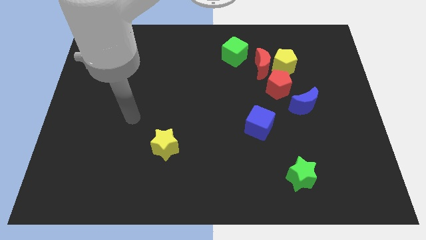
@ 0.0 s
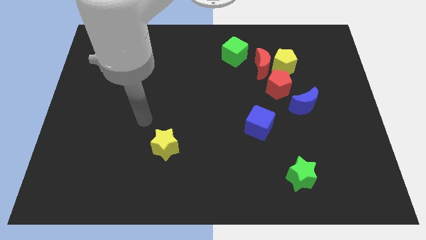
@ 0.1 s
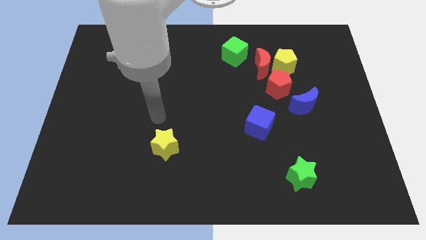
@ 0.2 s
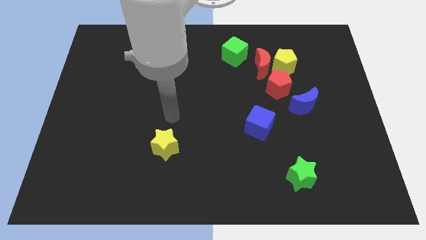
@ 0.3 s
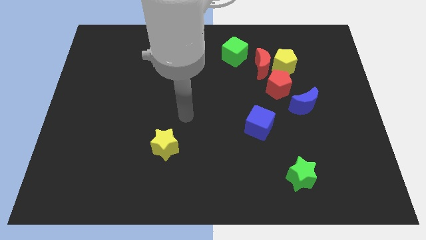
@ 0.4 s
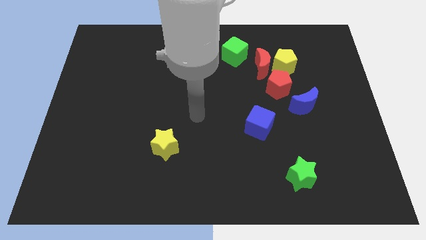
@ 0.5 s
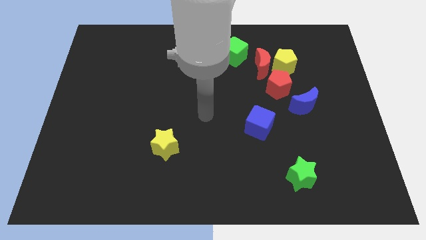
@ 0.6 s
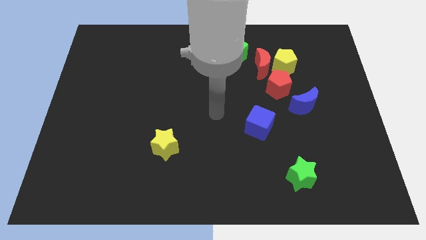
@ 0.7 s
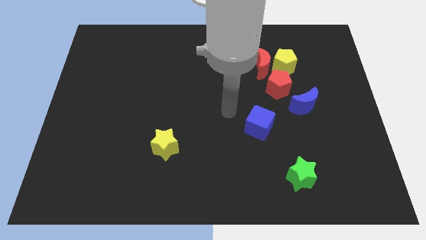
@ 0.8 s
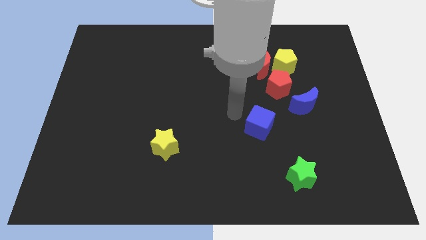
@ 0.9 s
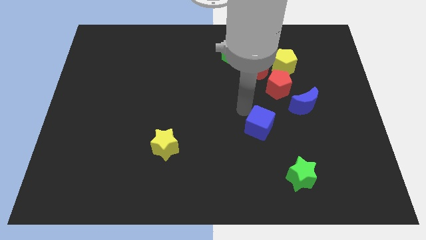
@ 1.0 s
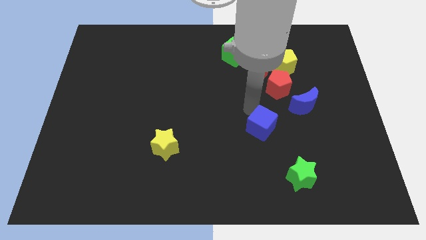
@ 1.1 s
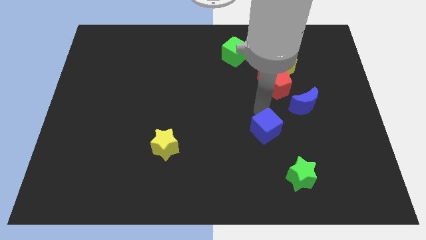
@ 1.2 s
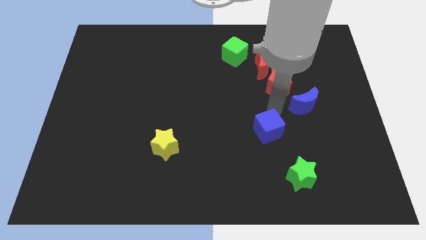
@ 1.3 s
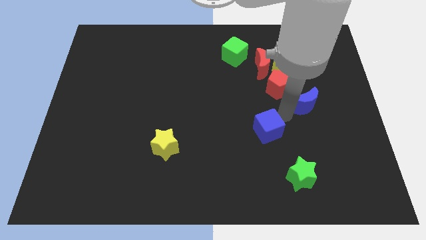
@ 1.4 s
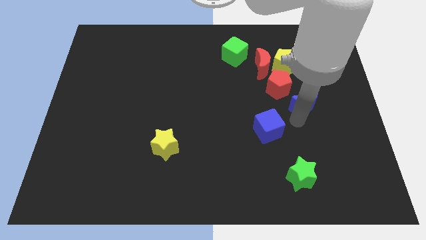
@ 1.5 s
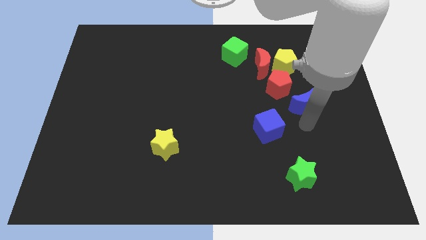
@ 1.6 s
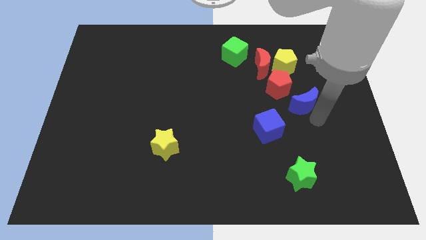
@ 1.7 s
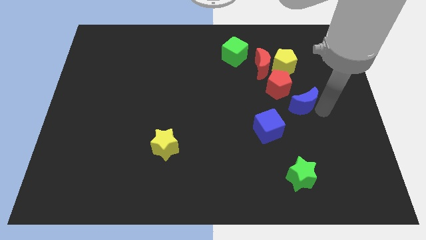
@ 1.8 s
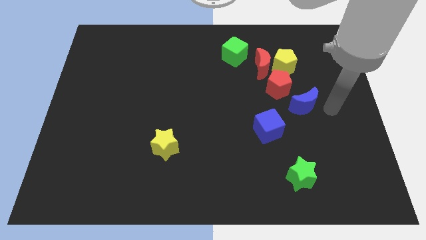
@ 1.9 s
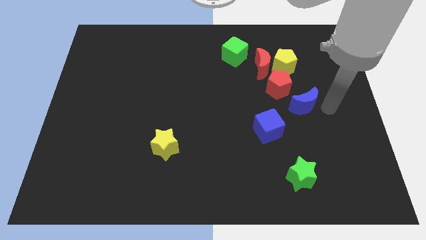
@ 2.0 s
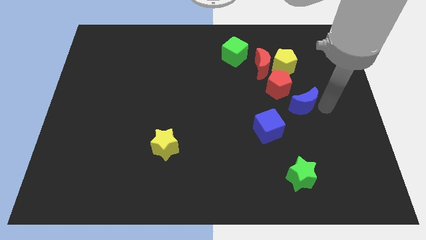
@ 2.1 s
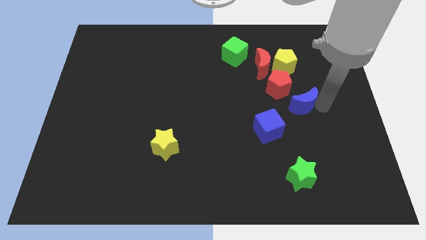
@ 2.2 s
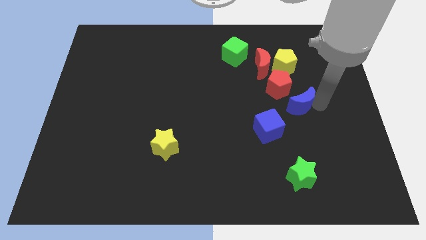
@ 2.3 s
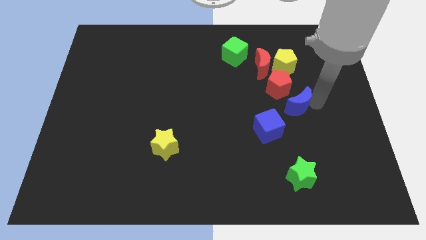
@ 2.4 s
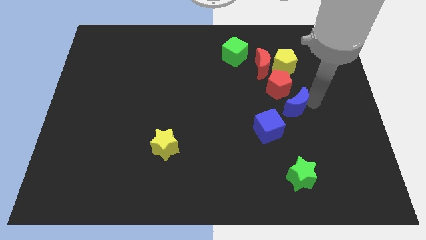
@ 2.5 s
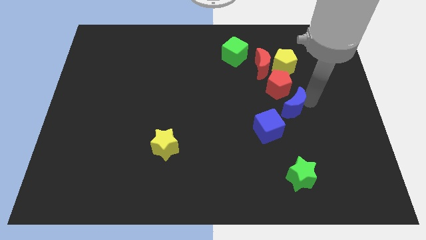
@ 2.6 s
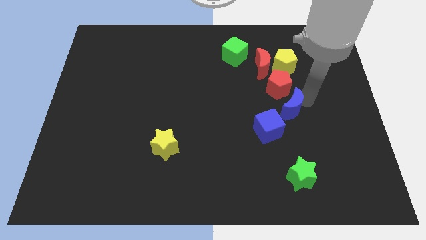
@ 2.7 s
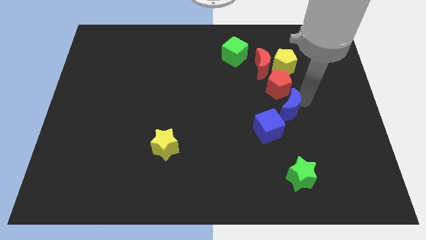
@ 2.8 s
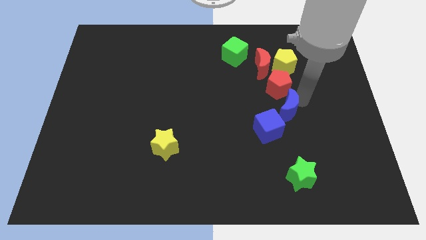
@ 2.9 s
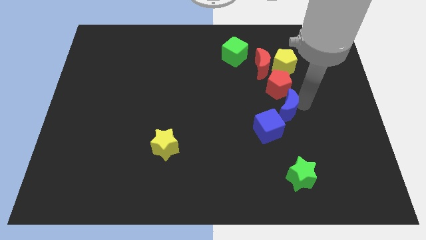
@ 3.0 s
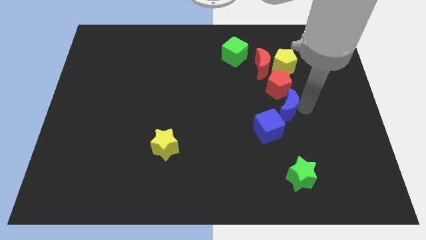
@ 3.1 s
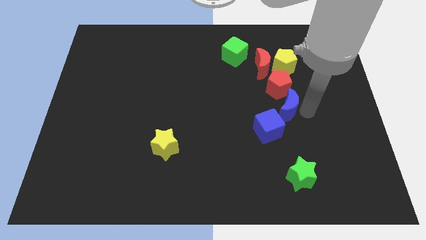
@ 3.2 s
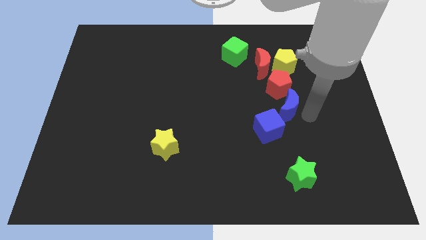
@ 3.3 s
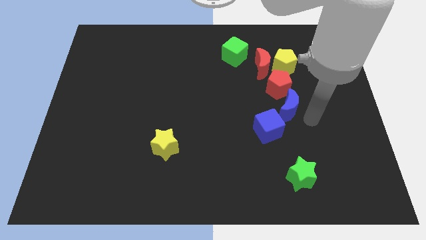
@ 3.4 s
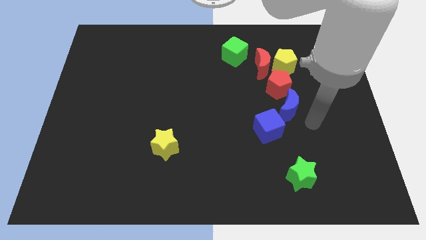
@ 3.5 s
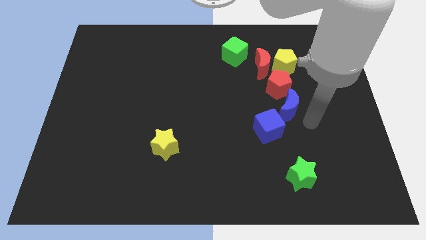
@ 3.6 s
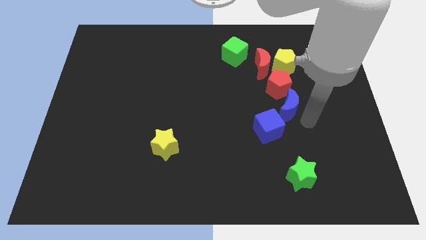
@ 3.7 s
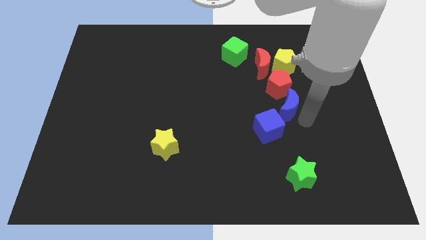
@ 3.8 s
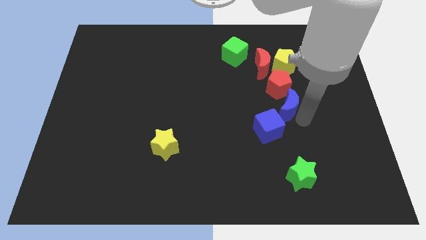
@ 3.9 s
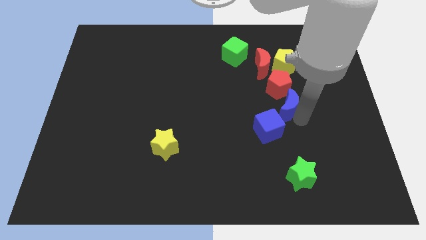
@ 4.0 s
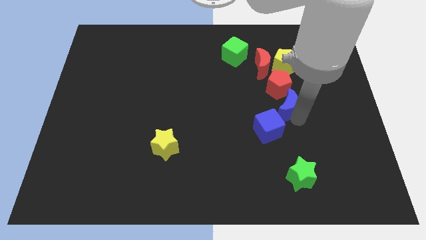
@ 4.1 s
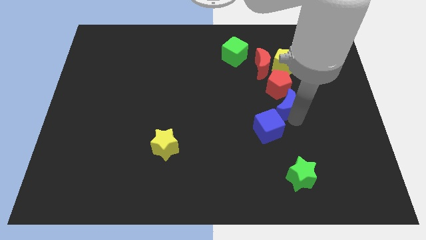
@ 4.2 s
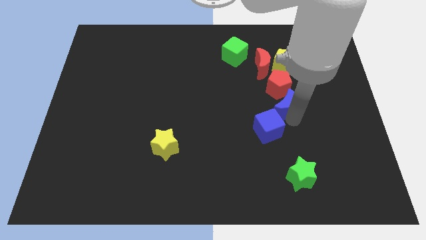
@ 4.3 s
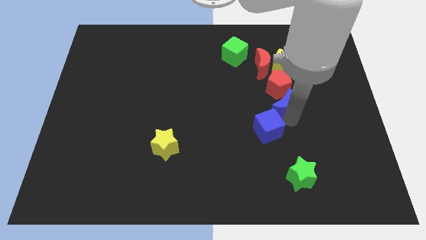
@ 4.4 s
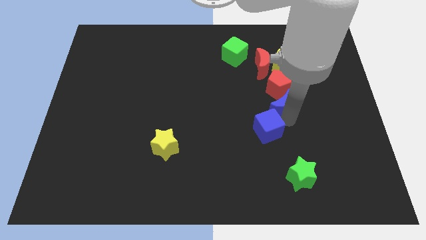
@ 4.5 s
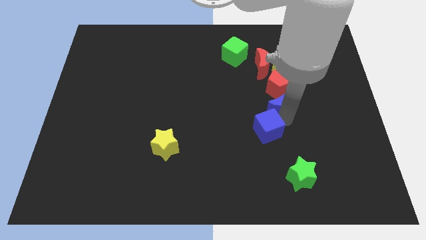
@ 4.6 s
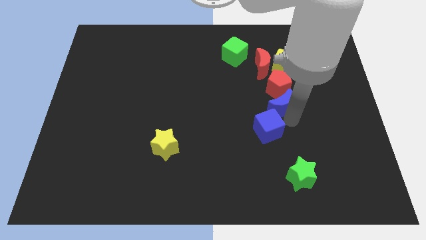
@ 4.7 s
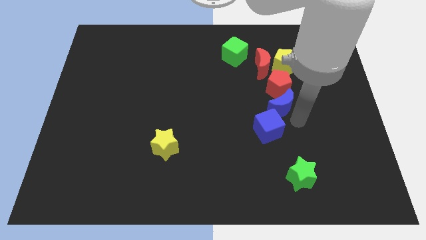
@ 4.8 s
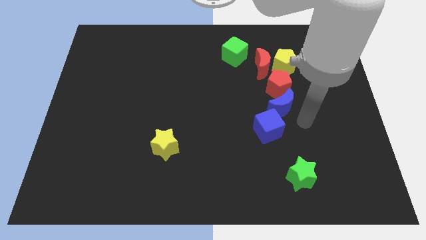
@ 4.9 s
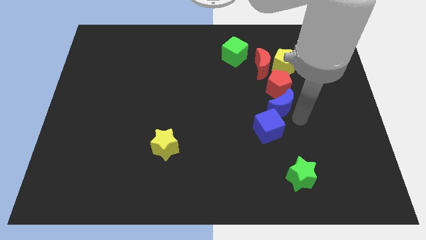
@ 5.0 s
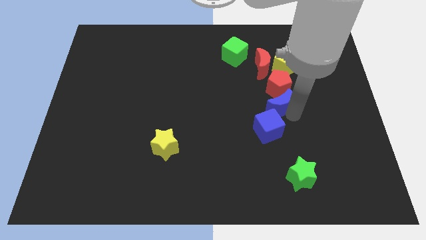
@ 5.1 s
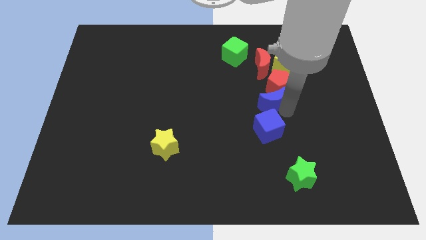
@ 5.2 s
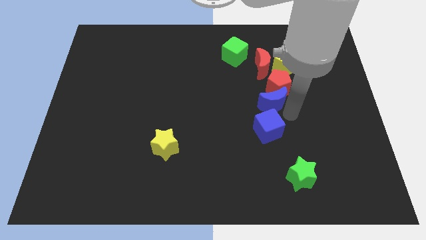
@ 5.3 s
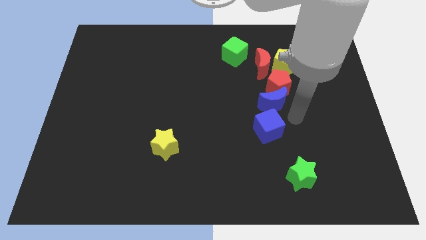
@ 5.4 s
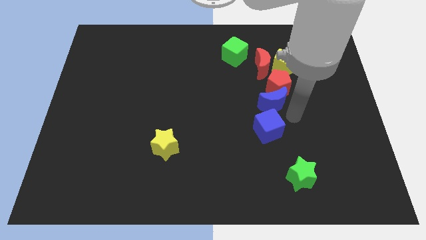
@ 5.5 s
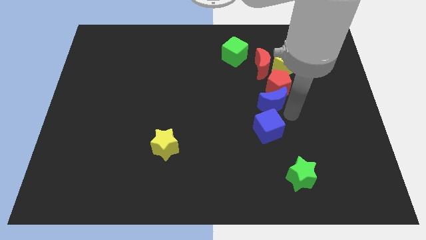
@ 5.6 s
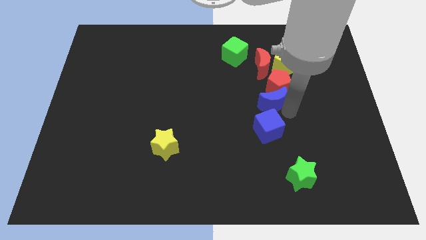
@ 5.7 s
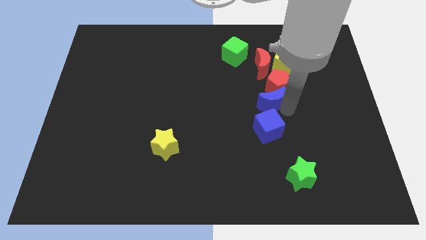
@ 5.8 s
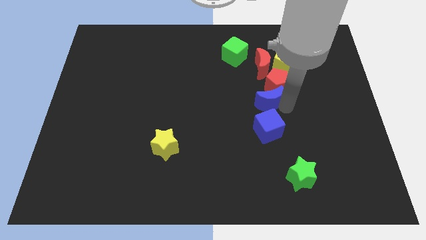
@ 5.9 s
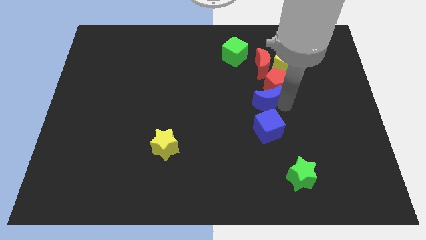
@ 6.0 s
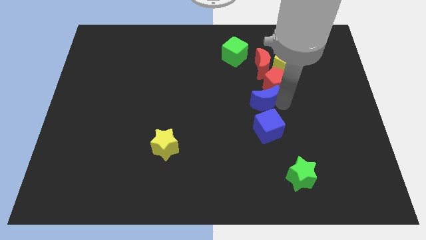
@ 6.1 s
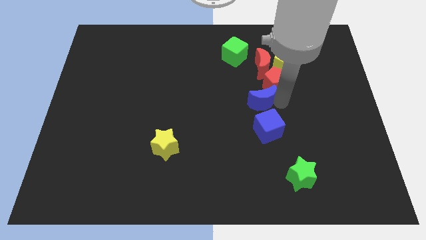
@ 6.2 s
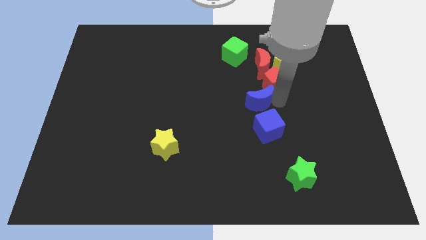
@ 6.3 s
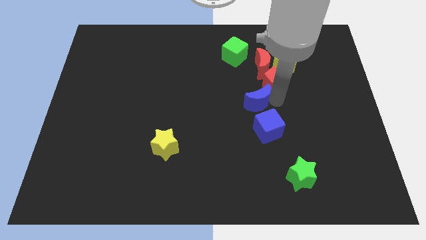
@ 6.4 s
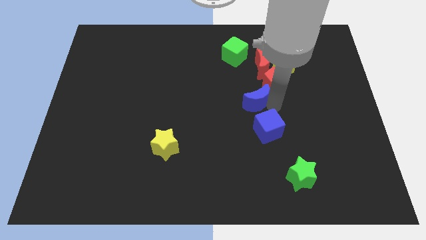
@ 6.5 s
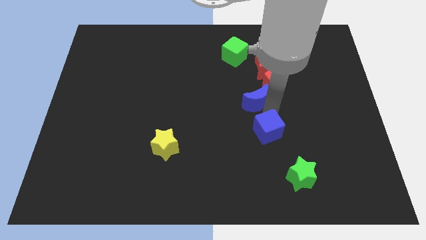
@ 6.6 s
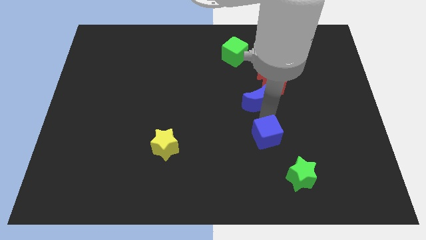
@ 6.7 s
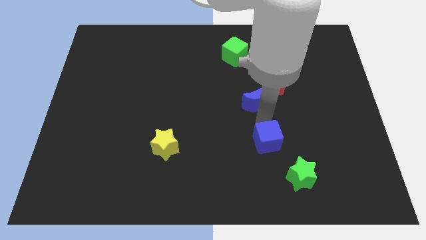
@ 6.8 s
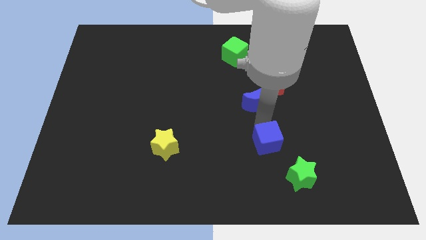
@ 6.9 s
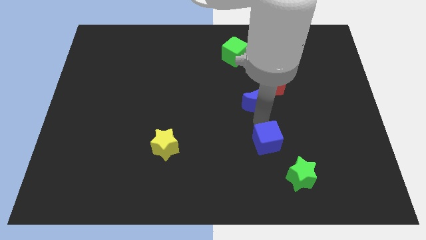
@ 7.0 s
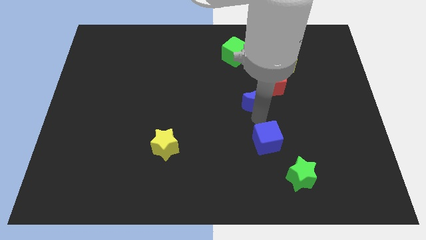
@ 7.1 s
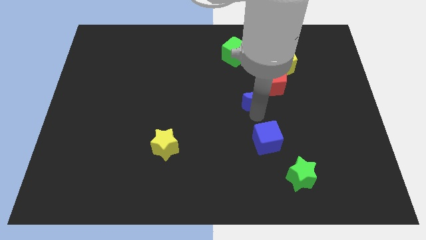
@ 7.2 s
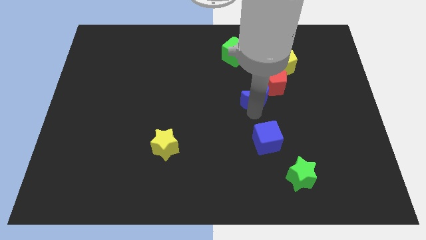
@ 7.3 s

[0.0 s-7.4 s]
push the blue moon upwards and left somewhat

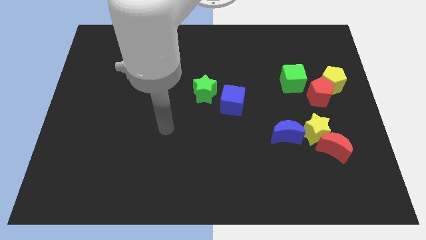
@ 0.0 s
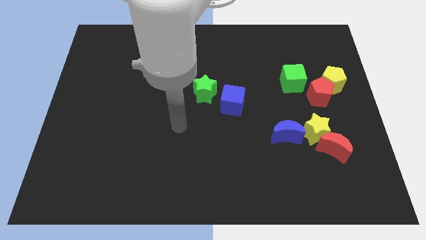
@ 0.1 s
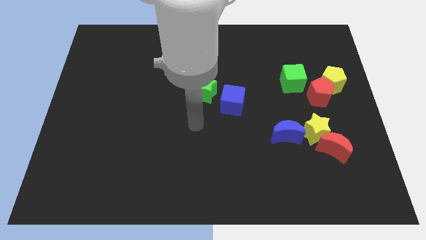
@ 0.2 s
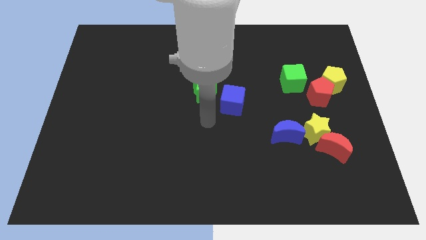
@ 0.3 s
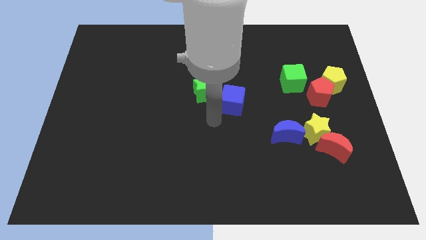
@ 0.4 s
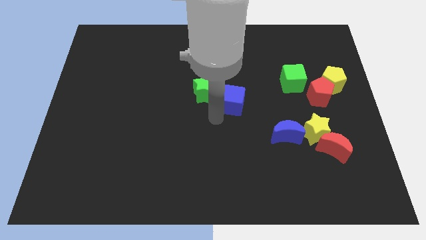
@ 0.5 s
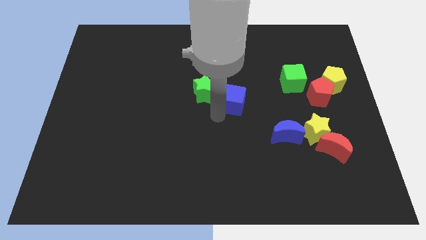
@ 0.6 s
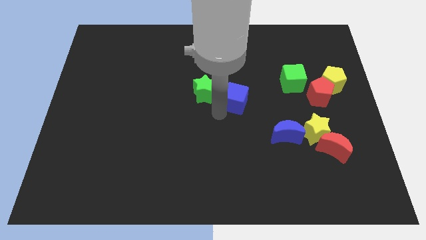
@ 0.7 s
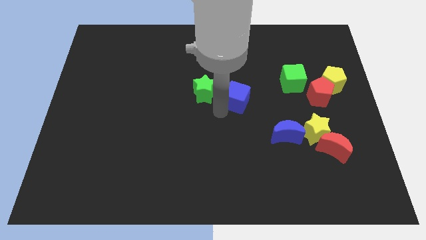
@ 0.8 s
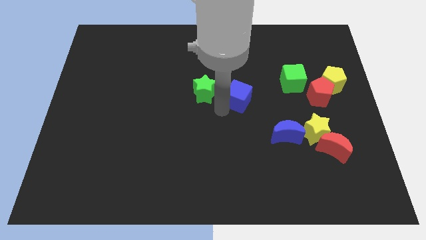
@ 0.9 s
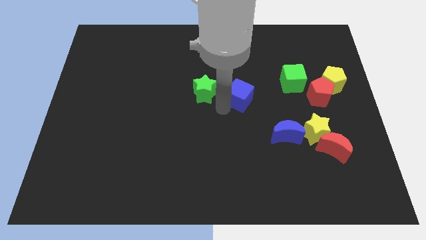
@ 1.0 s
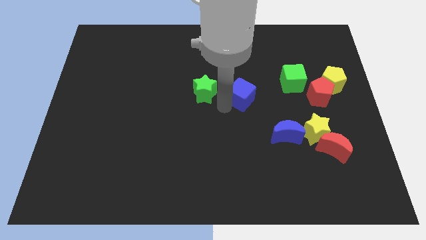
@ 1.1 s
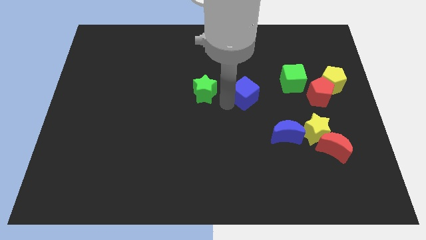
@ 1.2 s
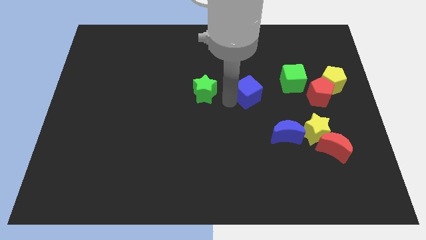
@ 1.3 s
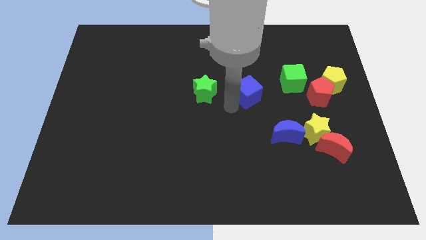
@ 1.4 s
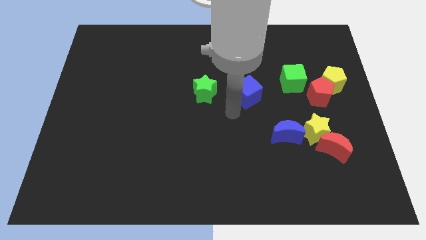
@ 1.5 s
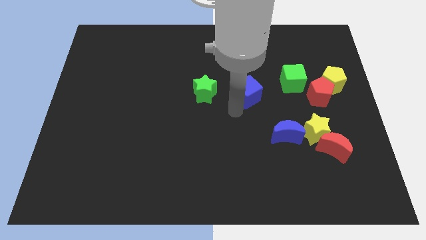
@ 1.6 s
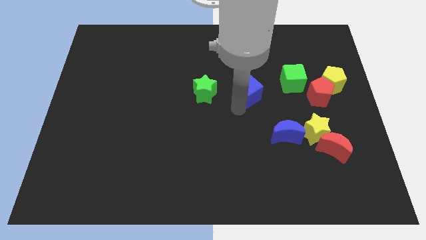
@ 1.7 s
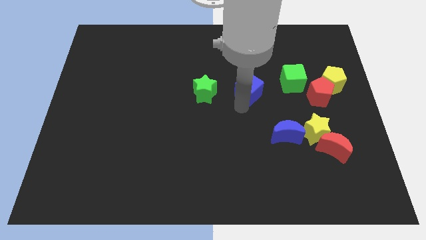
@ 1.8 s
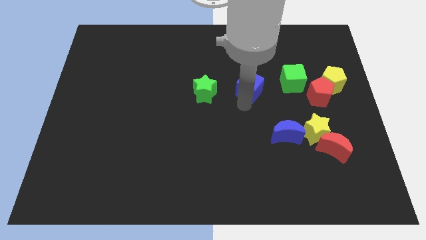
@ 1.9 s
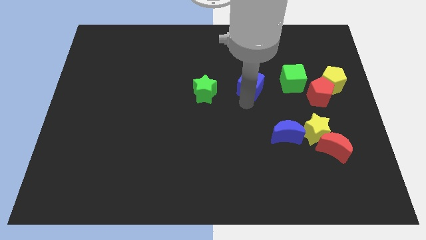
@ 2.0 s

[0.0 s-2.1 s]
move the blue cube a bit diagonally up and right
